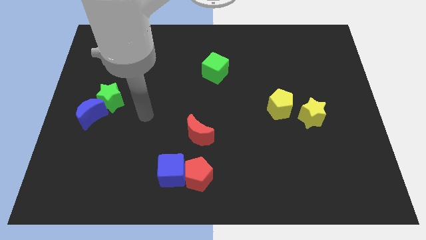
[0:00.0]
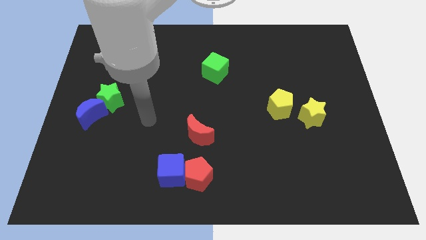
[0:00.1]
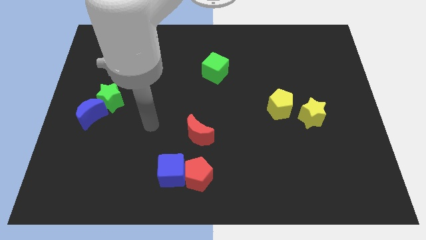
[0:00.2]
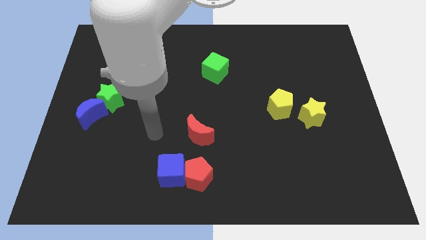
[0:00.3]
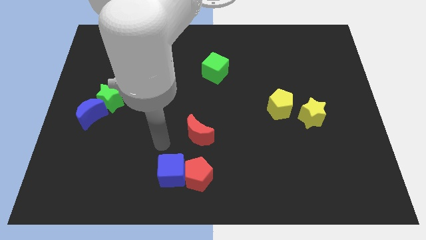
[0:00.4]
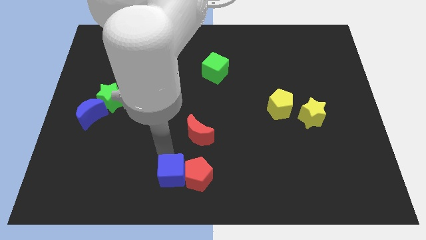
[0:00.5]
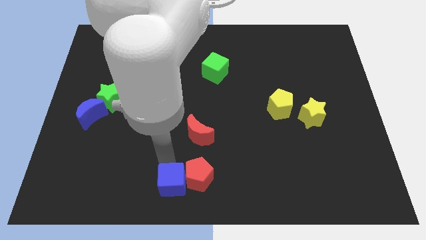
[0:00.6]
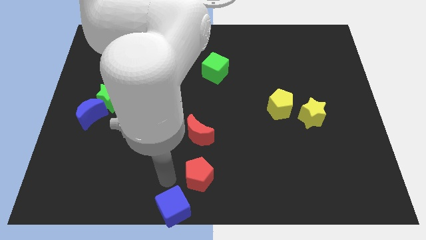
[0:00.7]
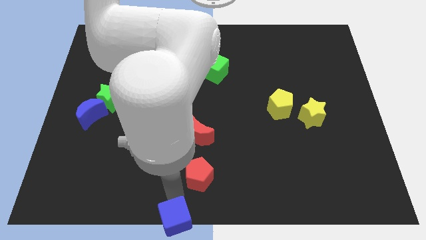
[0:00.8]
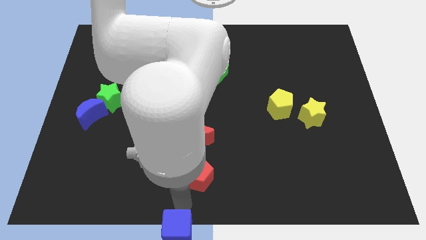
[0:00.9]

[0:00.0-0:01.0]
pull the red pentagon apart from the blue cube

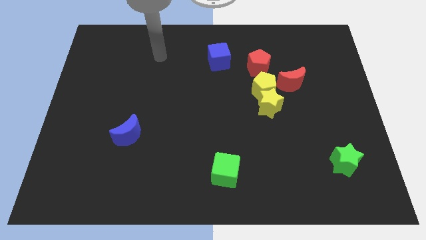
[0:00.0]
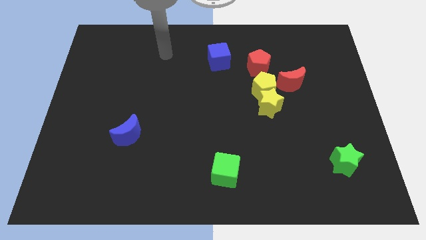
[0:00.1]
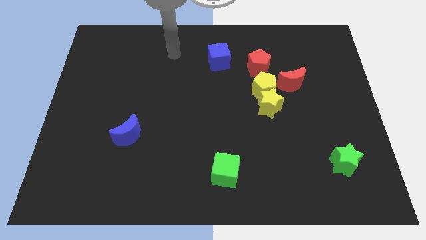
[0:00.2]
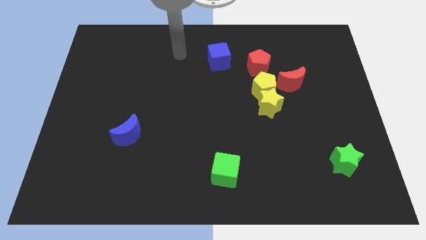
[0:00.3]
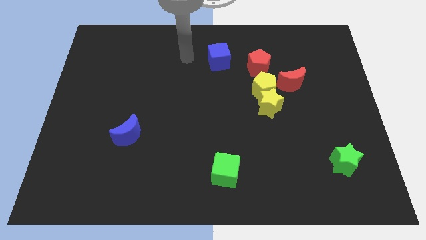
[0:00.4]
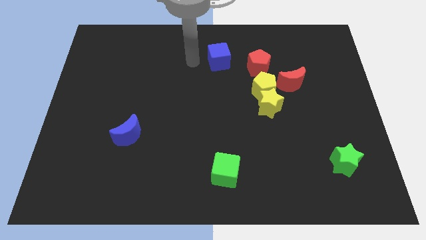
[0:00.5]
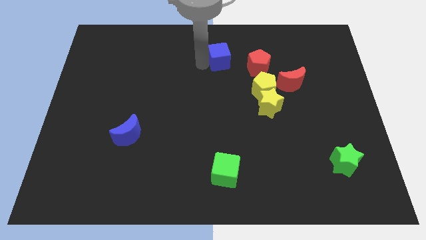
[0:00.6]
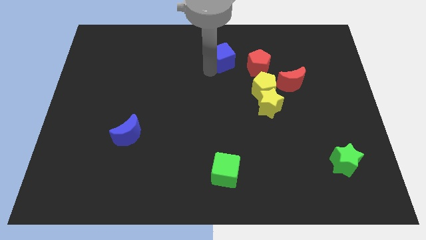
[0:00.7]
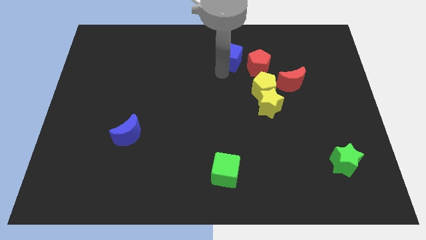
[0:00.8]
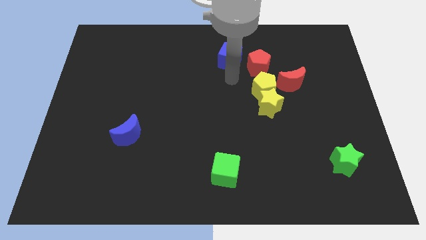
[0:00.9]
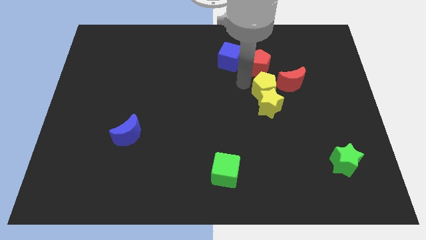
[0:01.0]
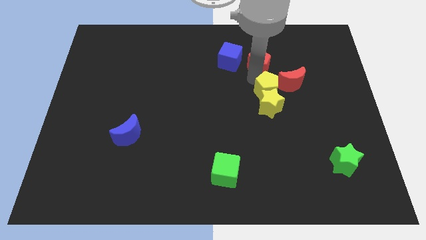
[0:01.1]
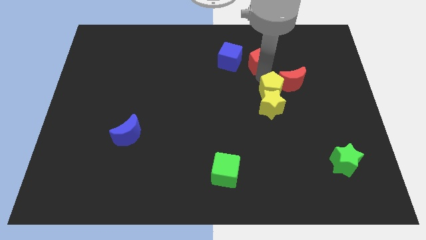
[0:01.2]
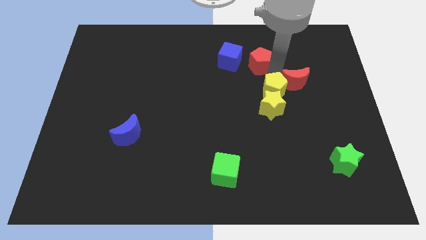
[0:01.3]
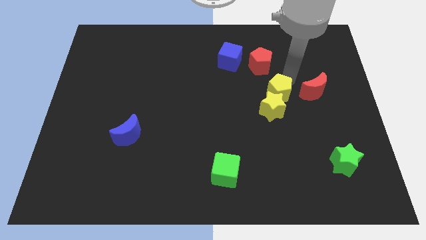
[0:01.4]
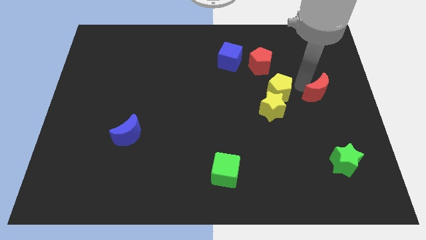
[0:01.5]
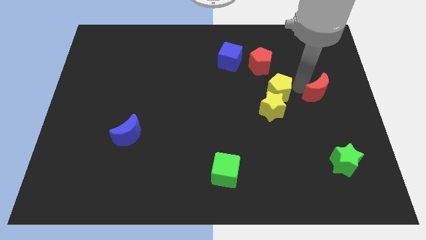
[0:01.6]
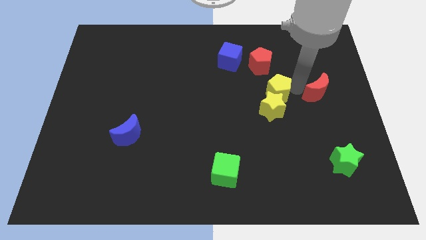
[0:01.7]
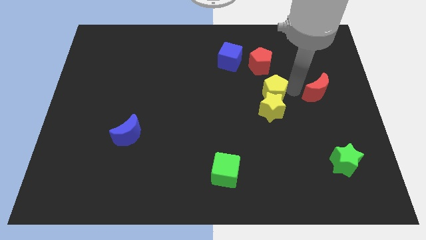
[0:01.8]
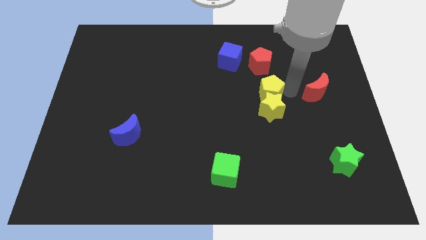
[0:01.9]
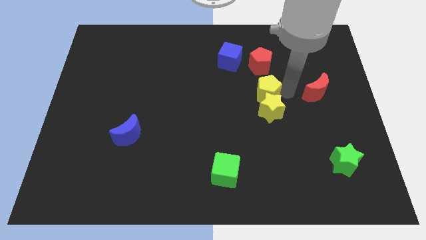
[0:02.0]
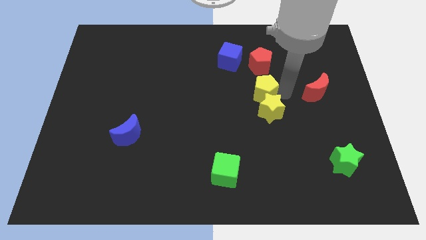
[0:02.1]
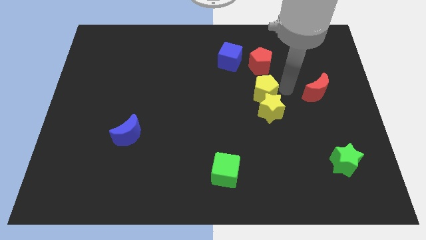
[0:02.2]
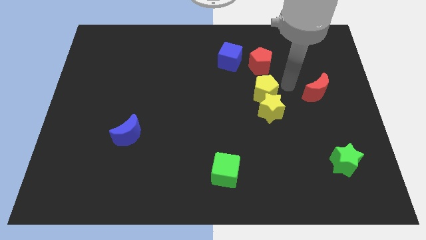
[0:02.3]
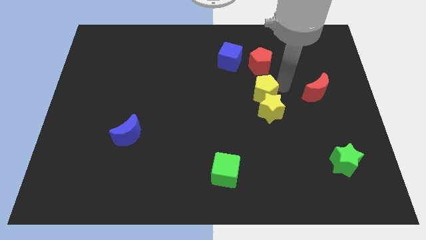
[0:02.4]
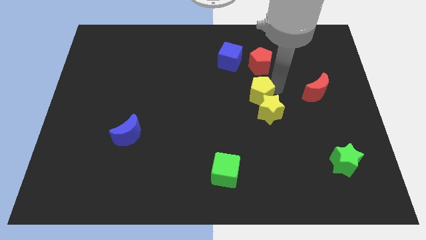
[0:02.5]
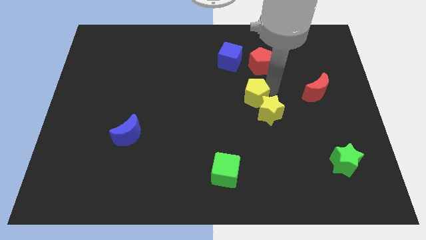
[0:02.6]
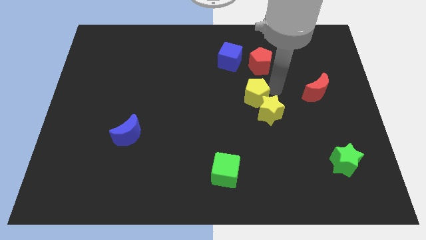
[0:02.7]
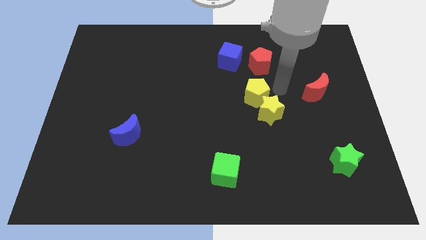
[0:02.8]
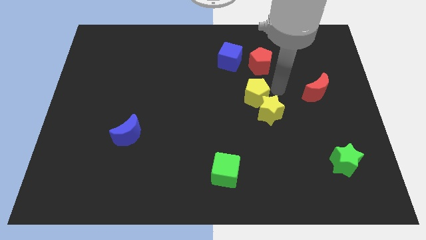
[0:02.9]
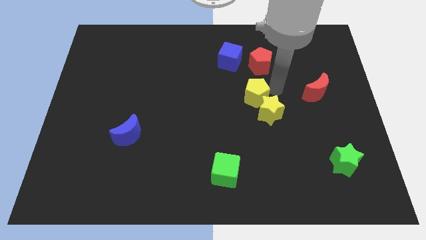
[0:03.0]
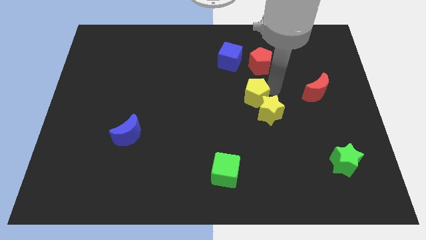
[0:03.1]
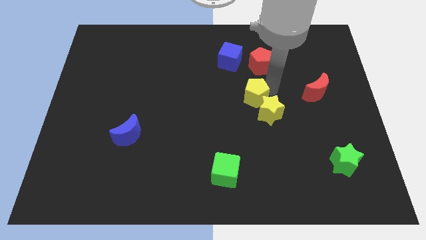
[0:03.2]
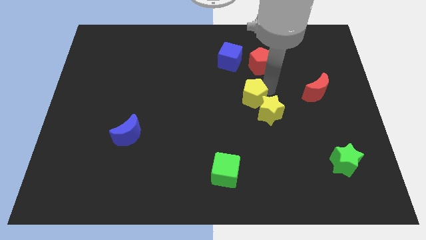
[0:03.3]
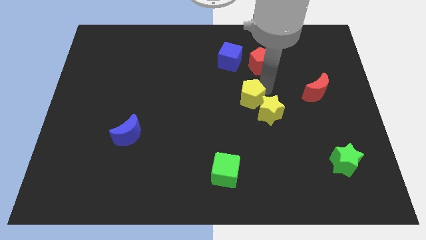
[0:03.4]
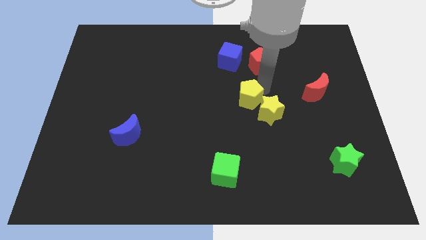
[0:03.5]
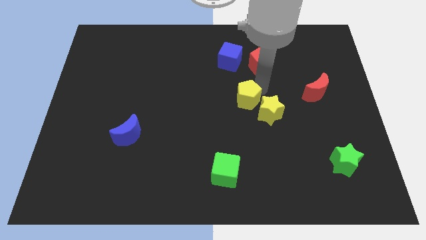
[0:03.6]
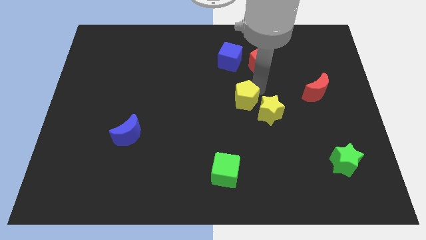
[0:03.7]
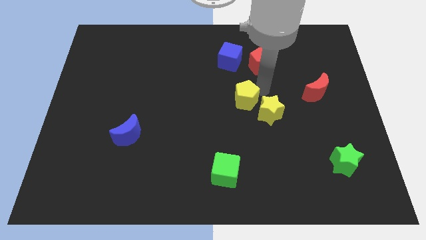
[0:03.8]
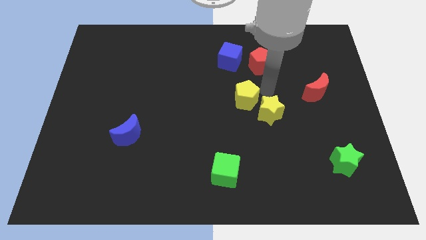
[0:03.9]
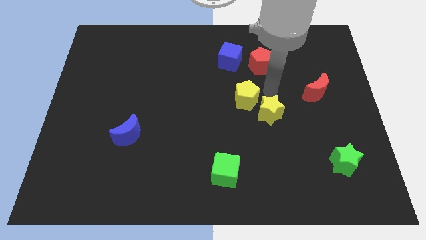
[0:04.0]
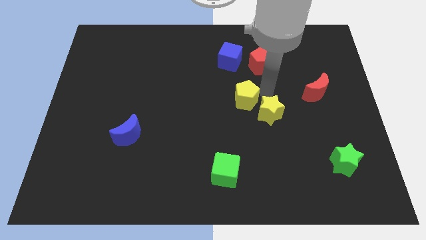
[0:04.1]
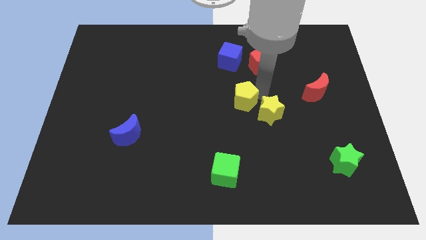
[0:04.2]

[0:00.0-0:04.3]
pull the yellow pentagon apart from the yellow star, red moon, and red pentagon

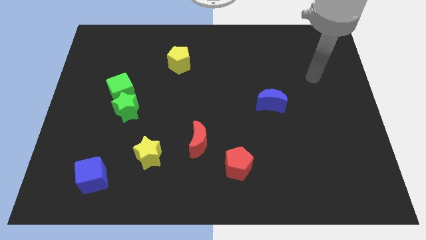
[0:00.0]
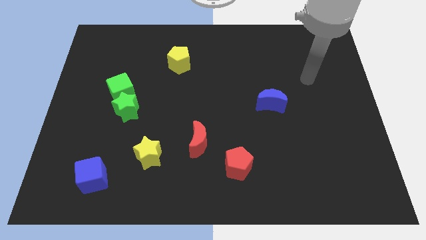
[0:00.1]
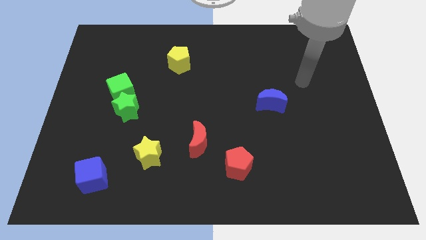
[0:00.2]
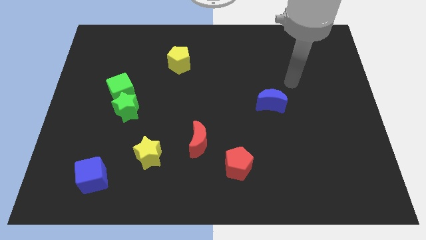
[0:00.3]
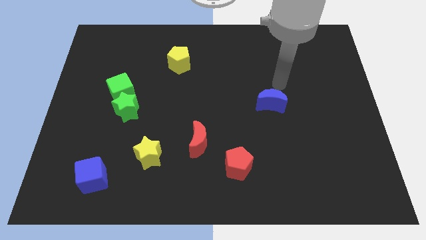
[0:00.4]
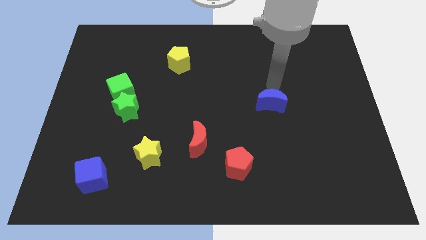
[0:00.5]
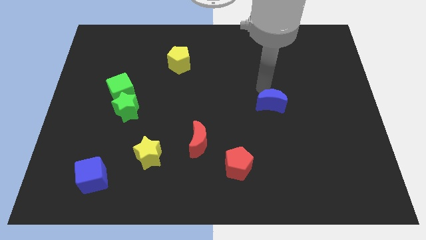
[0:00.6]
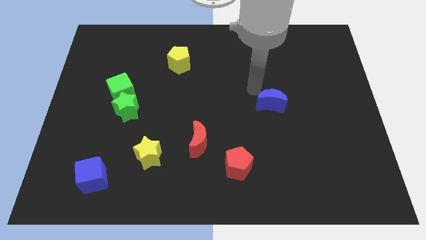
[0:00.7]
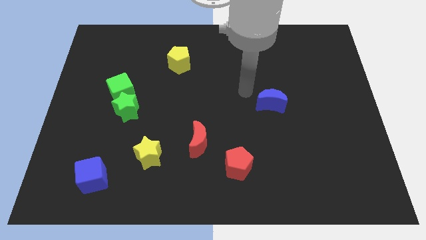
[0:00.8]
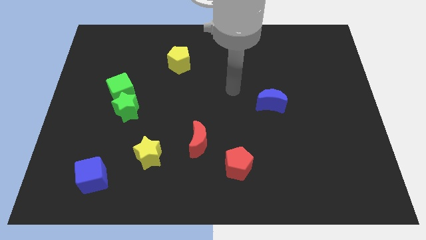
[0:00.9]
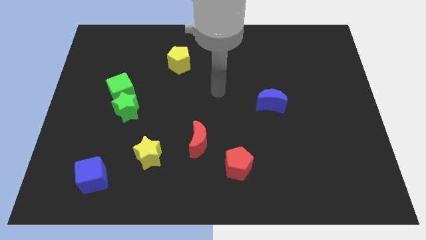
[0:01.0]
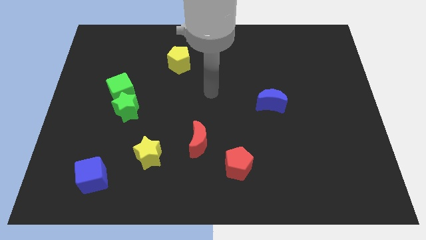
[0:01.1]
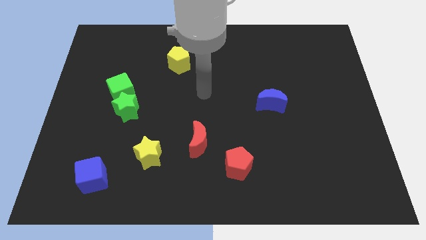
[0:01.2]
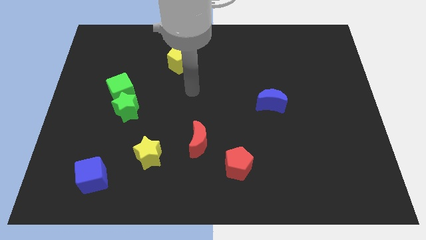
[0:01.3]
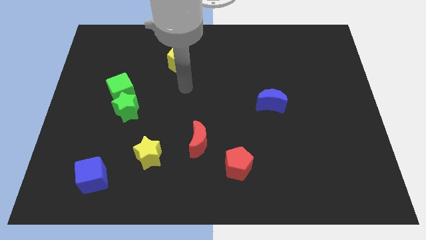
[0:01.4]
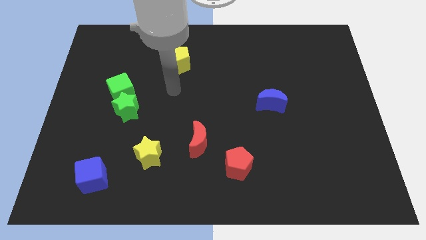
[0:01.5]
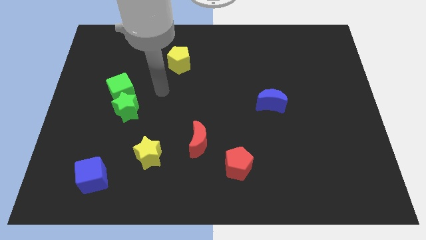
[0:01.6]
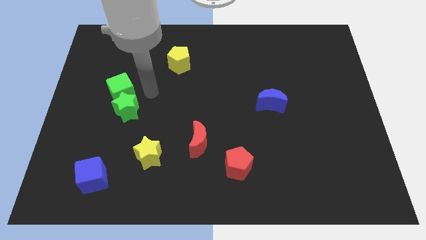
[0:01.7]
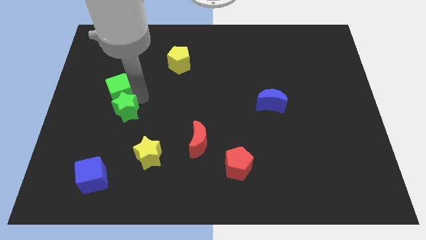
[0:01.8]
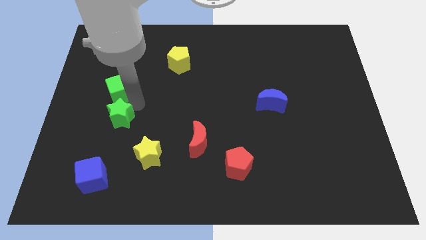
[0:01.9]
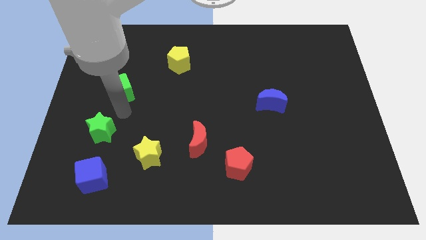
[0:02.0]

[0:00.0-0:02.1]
move the green cube away from the green star

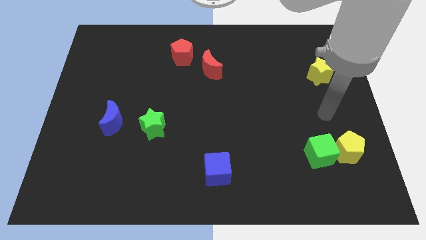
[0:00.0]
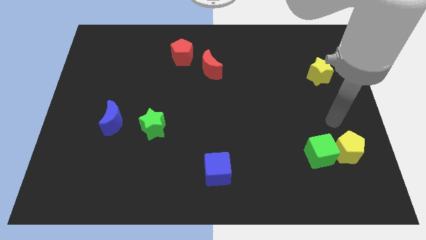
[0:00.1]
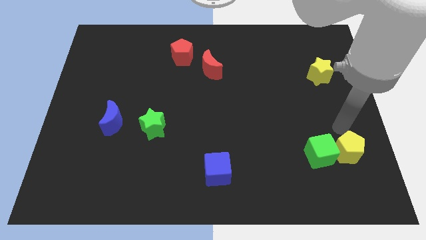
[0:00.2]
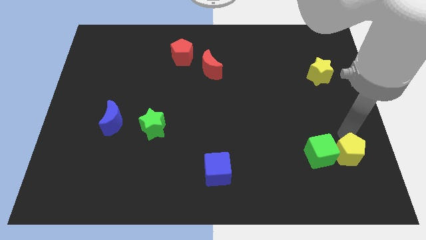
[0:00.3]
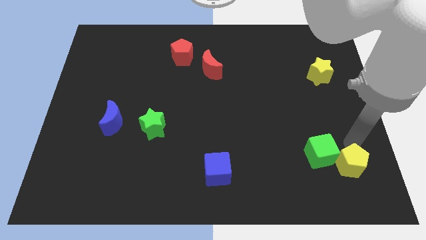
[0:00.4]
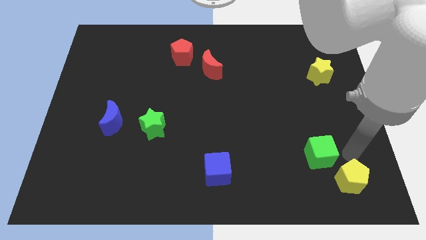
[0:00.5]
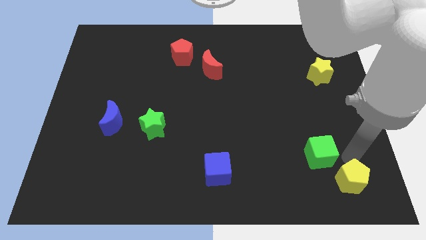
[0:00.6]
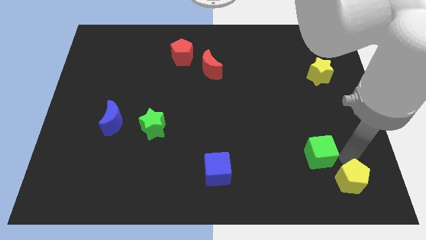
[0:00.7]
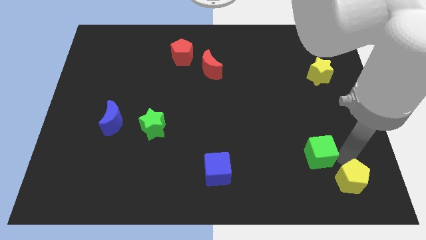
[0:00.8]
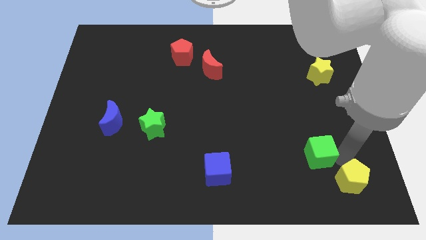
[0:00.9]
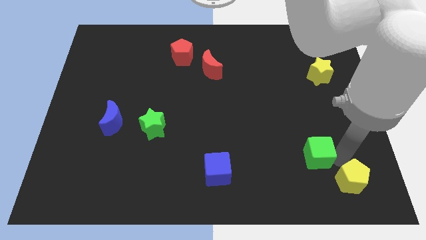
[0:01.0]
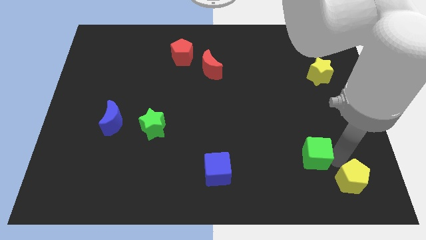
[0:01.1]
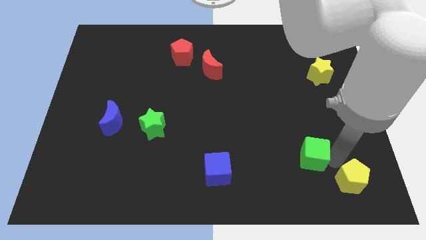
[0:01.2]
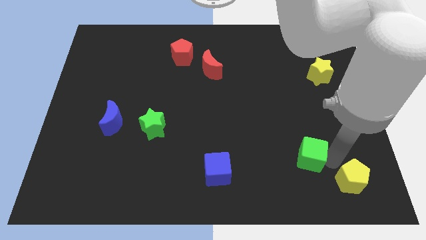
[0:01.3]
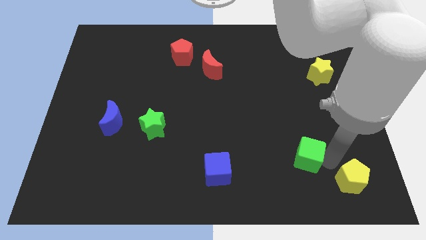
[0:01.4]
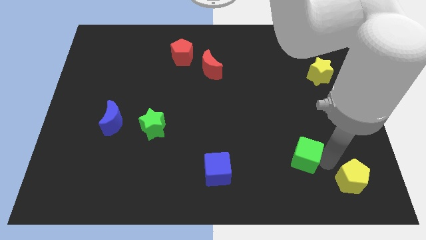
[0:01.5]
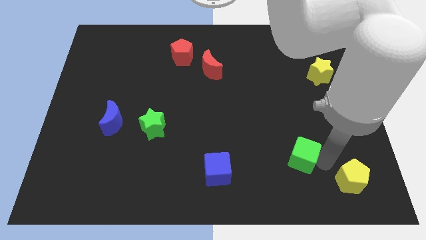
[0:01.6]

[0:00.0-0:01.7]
separate the green cube from the yellow pentagon

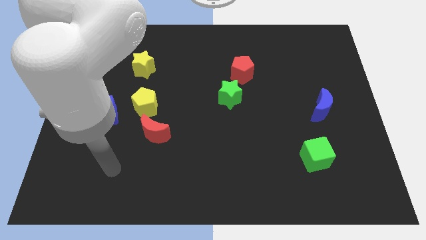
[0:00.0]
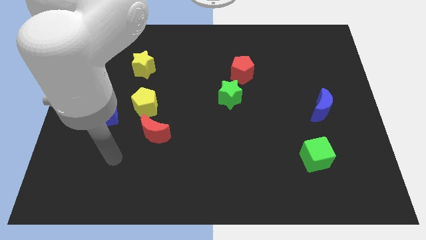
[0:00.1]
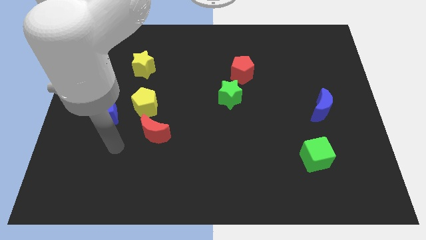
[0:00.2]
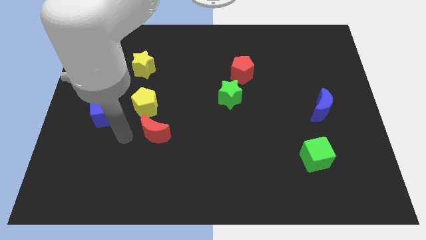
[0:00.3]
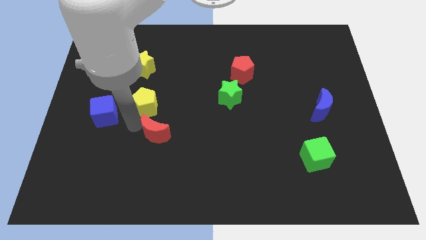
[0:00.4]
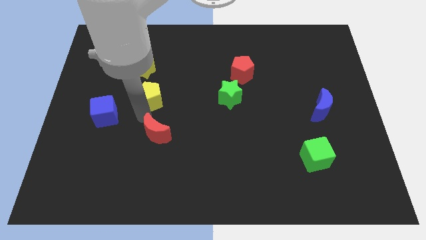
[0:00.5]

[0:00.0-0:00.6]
move the red moon away from the yellow pentagon
